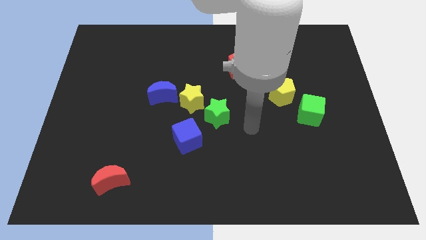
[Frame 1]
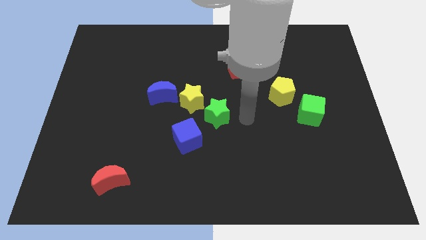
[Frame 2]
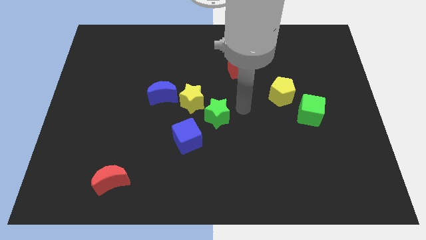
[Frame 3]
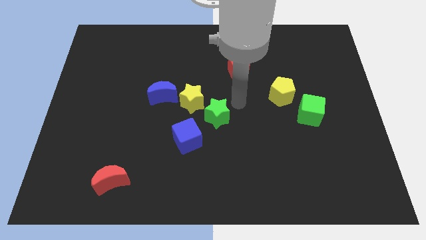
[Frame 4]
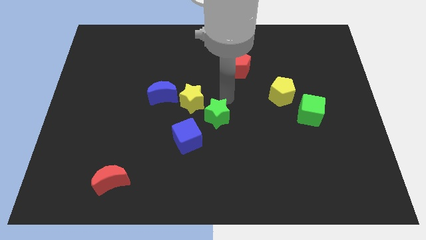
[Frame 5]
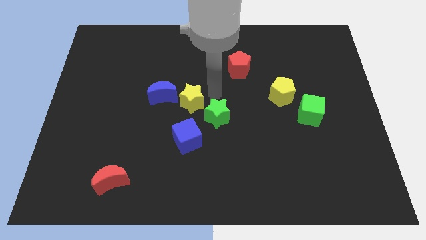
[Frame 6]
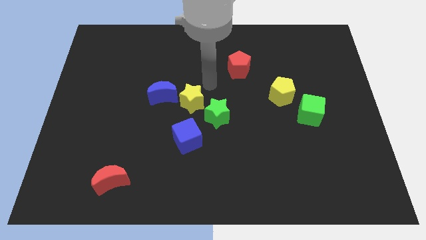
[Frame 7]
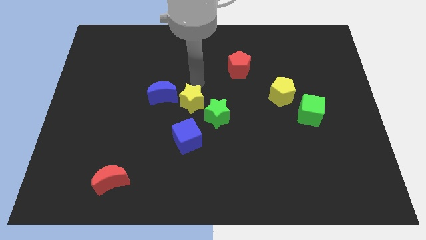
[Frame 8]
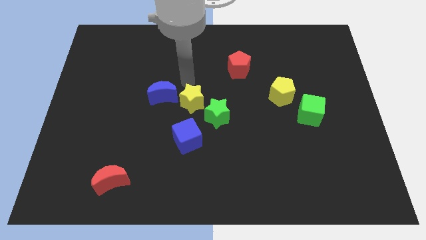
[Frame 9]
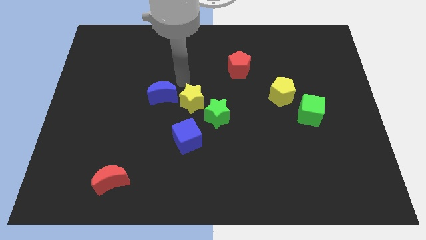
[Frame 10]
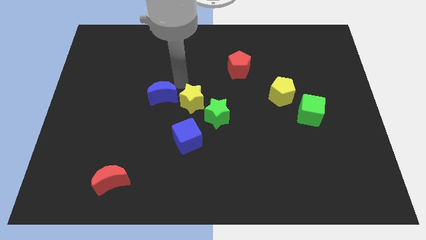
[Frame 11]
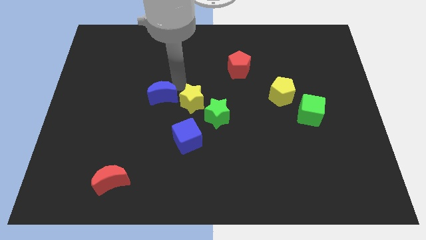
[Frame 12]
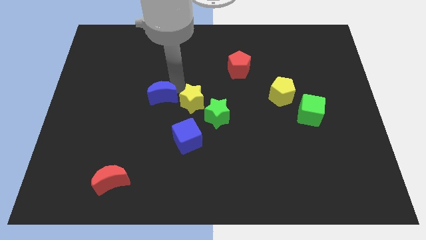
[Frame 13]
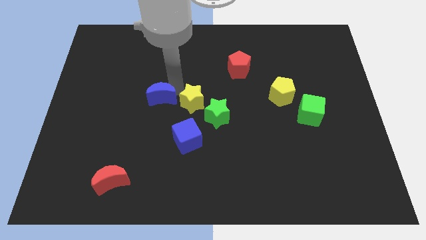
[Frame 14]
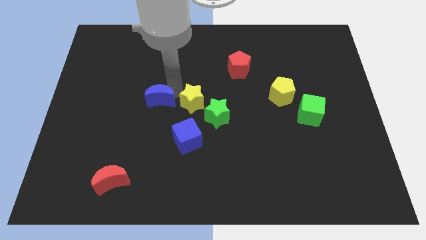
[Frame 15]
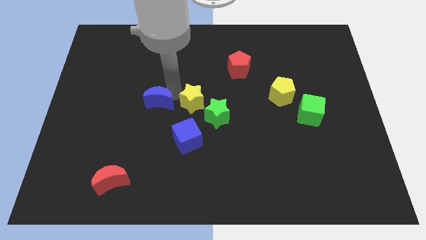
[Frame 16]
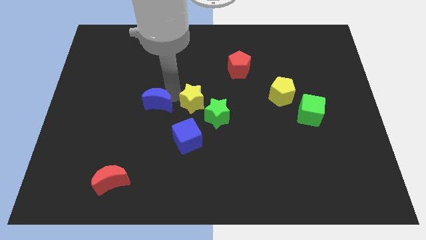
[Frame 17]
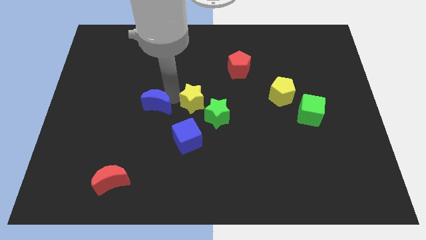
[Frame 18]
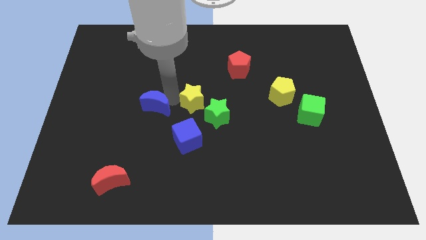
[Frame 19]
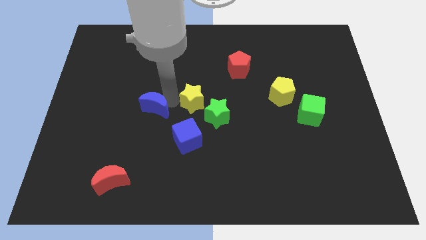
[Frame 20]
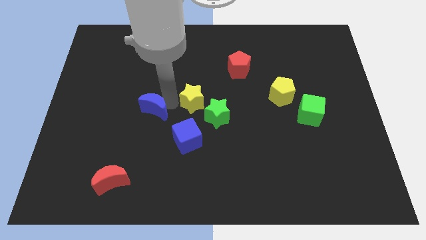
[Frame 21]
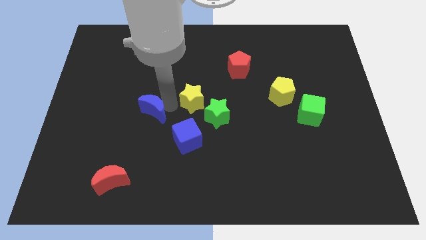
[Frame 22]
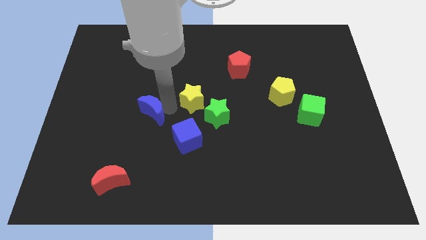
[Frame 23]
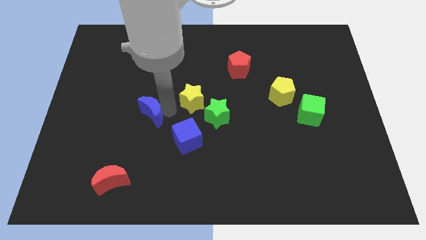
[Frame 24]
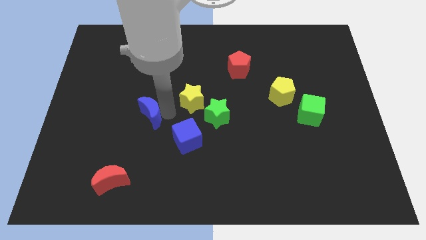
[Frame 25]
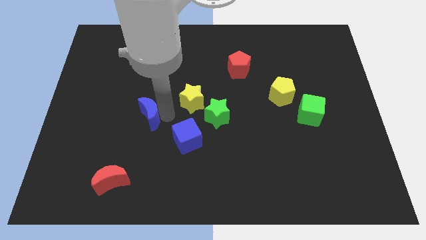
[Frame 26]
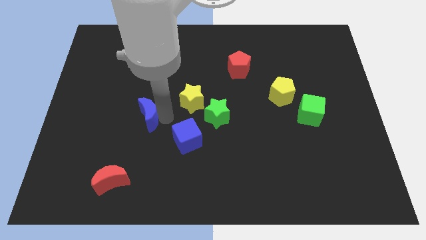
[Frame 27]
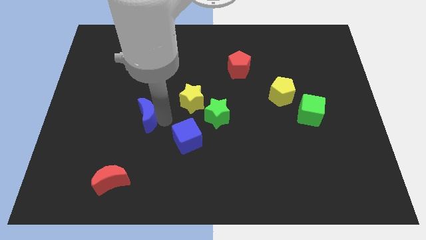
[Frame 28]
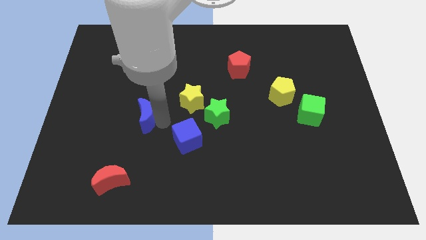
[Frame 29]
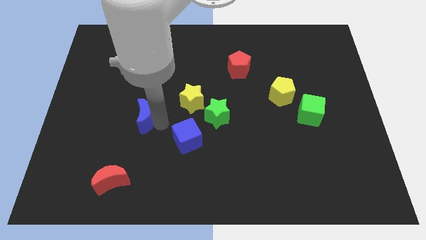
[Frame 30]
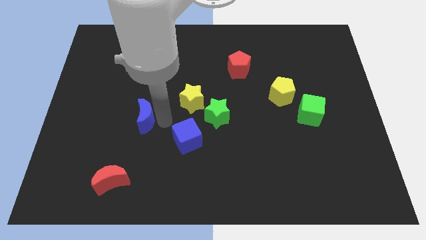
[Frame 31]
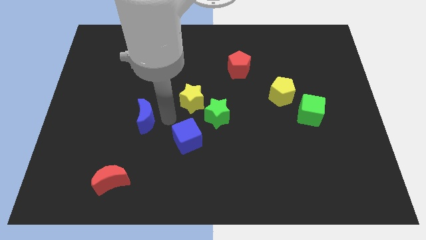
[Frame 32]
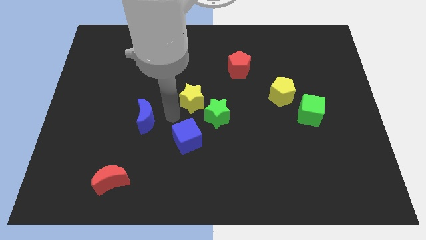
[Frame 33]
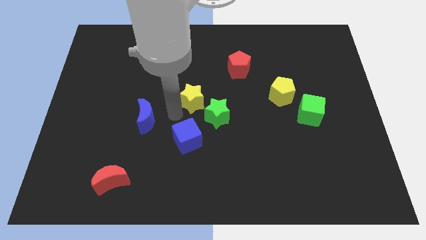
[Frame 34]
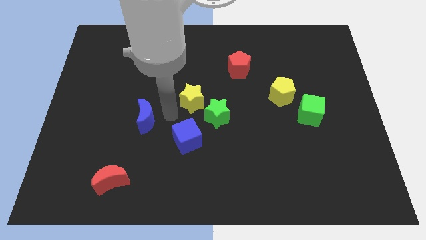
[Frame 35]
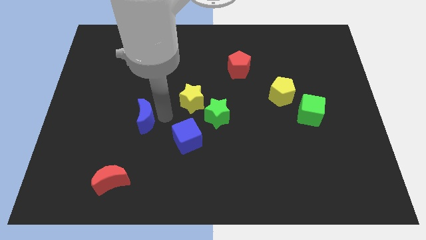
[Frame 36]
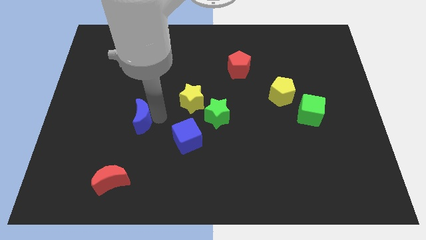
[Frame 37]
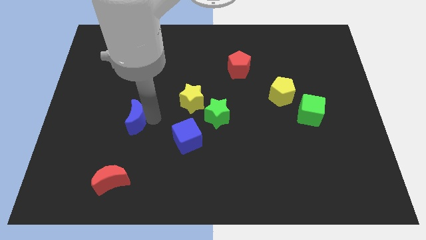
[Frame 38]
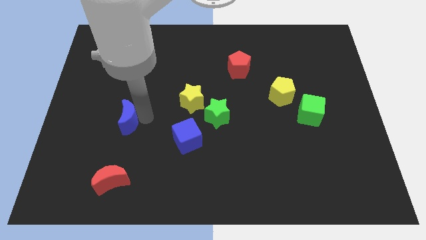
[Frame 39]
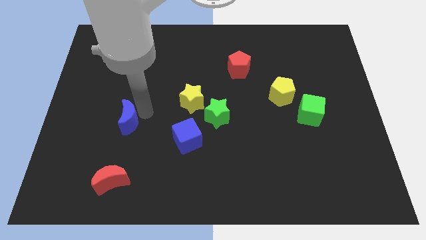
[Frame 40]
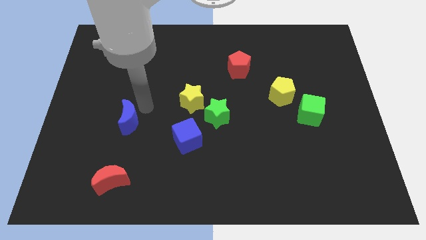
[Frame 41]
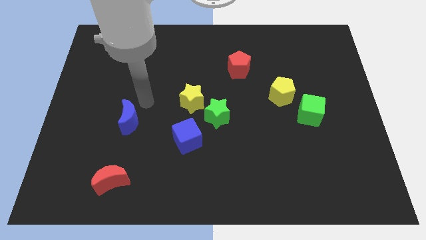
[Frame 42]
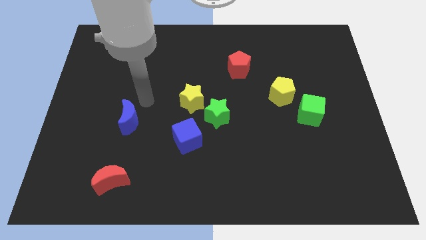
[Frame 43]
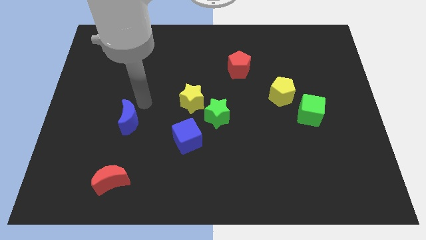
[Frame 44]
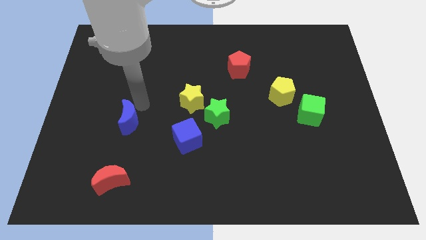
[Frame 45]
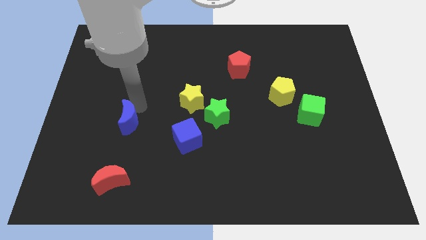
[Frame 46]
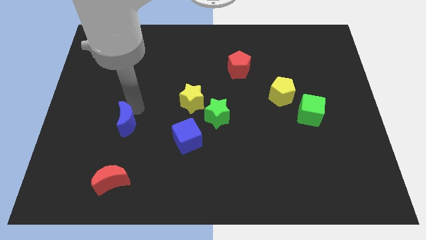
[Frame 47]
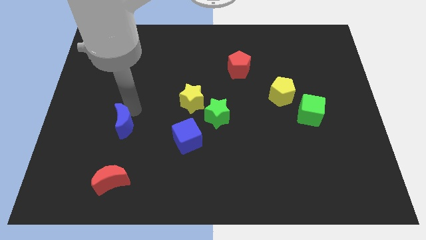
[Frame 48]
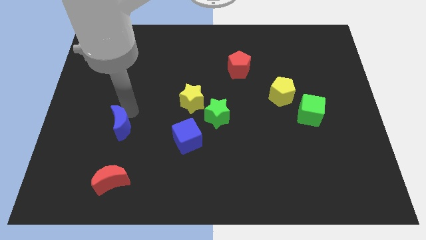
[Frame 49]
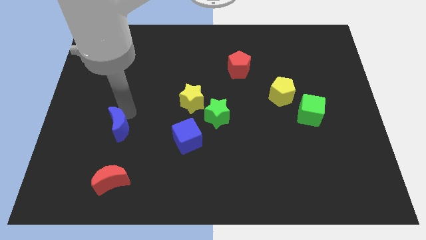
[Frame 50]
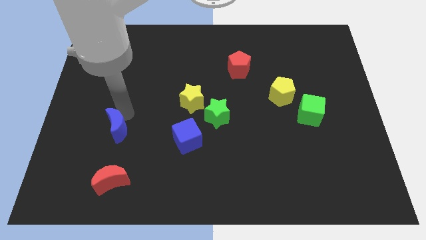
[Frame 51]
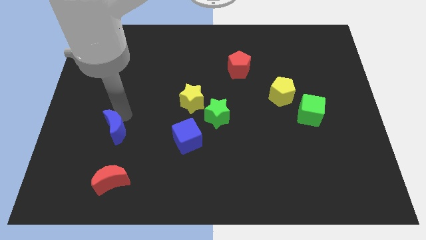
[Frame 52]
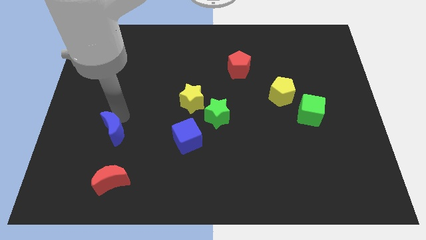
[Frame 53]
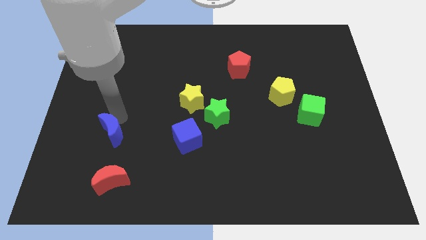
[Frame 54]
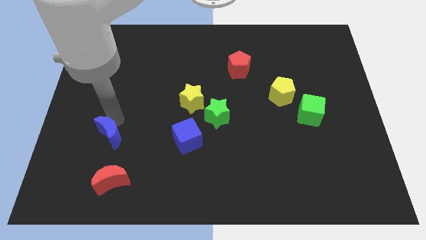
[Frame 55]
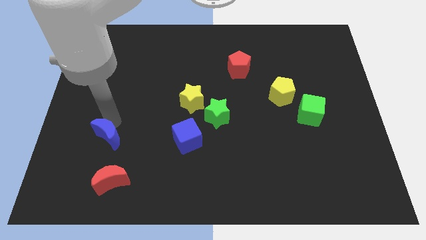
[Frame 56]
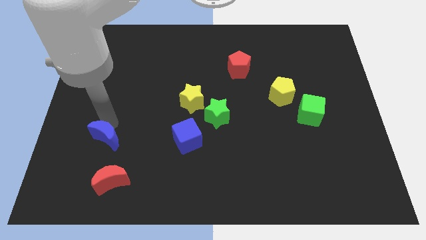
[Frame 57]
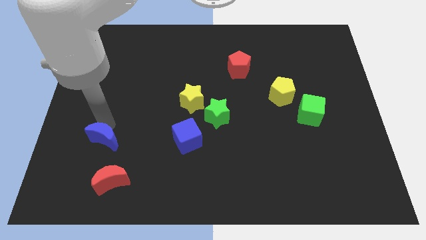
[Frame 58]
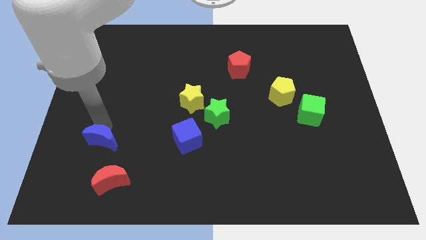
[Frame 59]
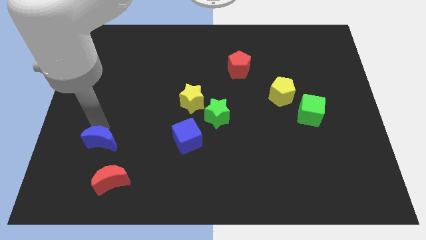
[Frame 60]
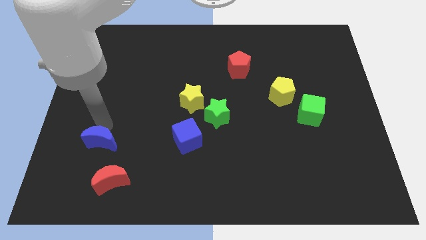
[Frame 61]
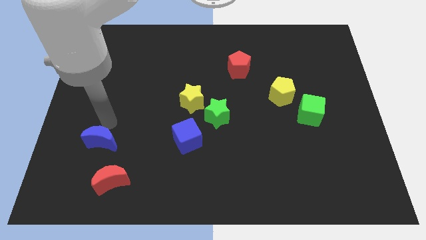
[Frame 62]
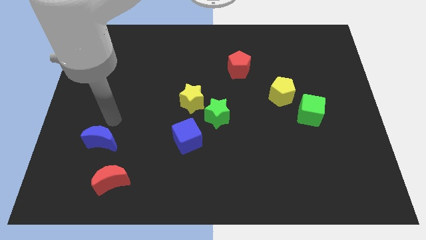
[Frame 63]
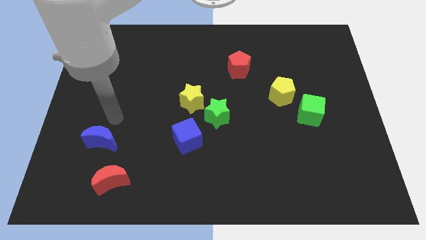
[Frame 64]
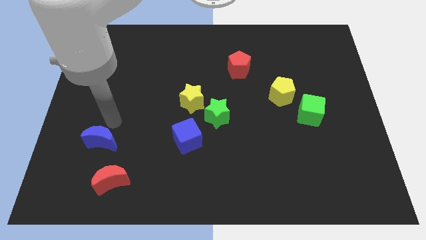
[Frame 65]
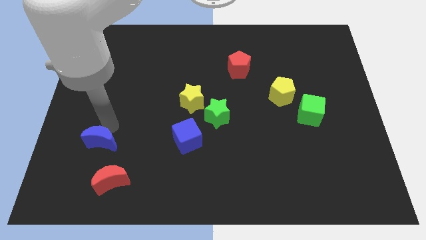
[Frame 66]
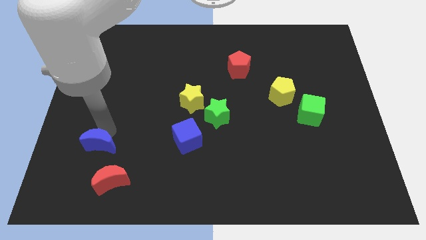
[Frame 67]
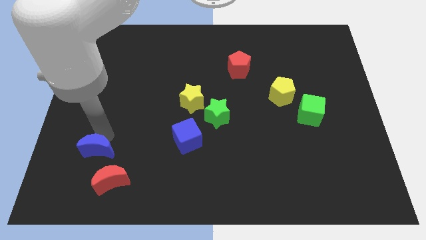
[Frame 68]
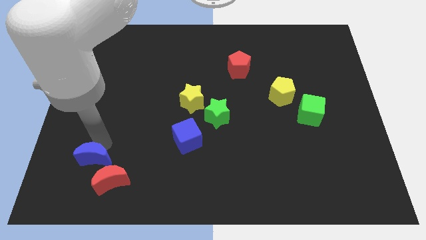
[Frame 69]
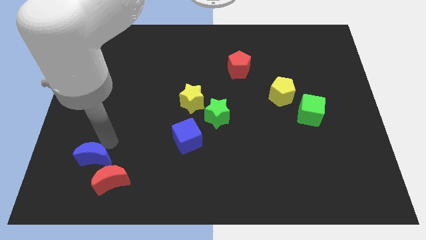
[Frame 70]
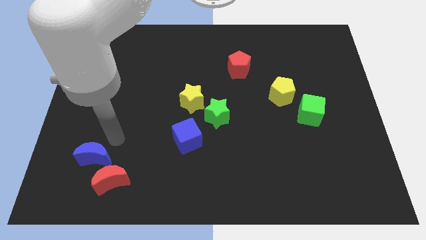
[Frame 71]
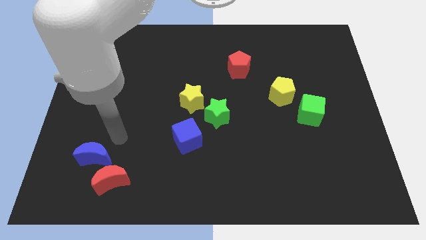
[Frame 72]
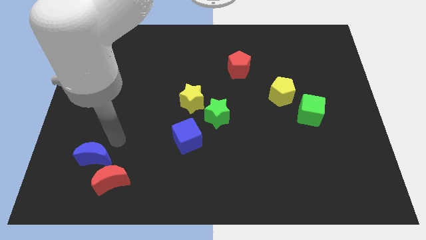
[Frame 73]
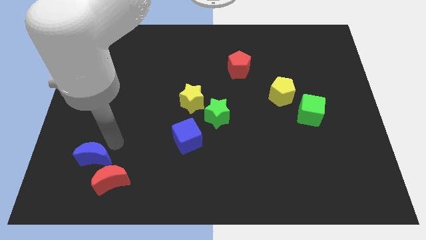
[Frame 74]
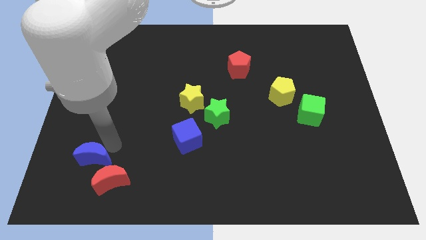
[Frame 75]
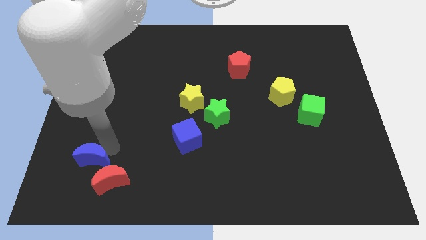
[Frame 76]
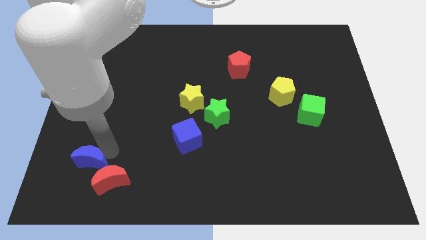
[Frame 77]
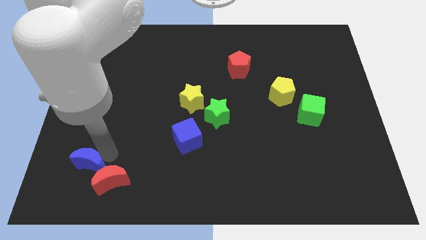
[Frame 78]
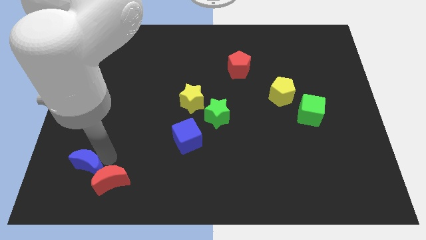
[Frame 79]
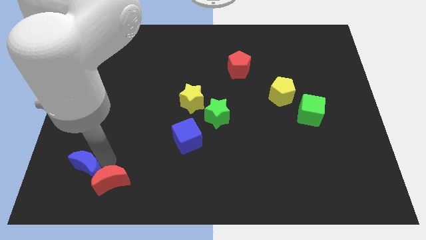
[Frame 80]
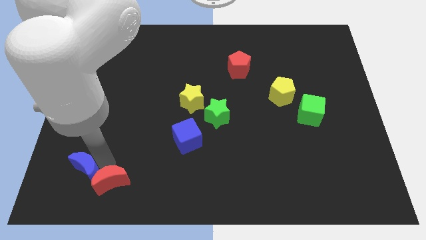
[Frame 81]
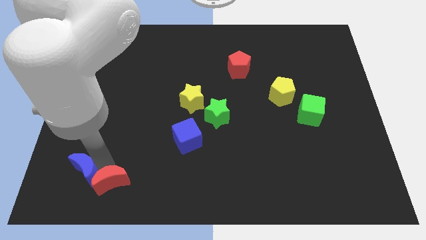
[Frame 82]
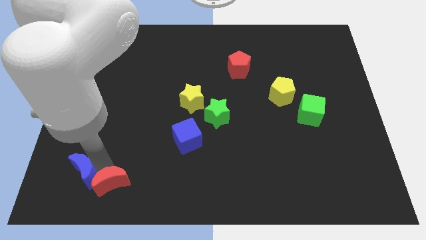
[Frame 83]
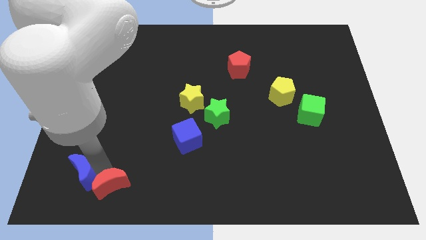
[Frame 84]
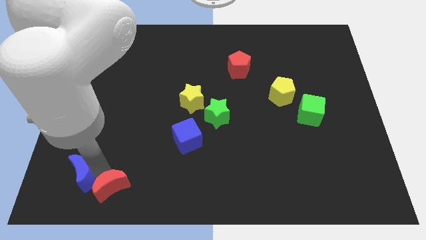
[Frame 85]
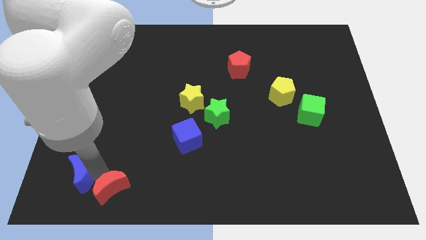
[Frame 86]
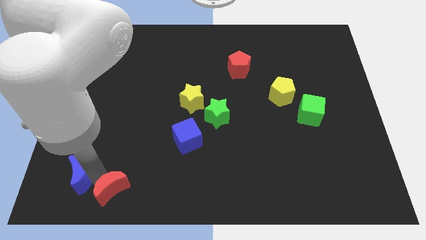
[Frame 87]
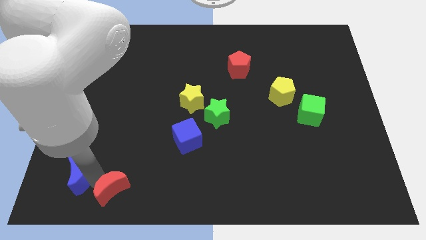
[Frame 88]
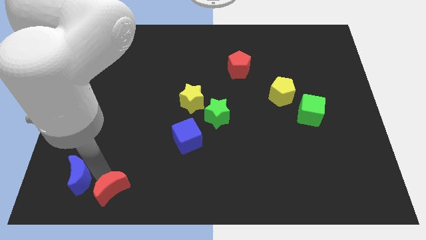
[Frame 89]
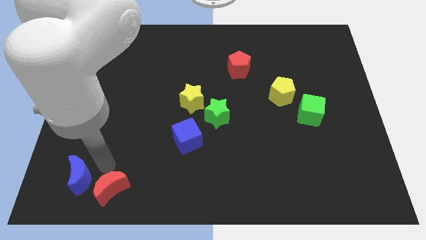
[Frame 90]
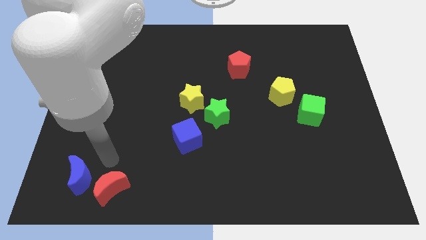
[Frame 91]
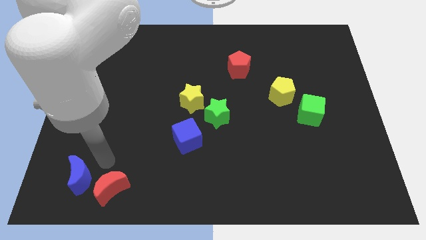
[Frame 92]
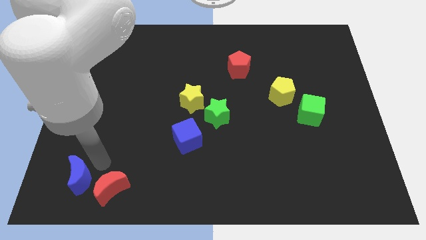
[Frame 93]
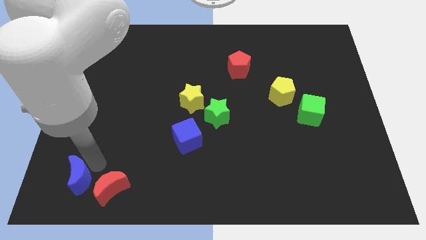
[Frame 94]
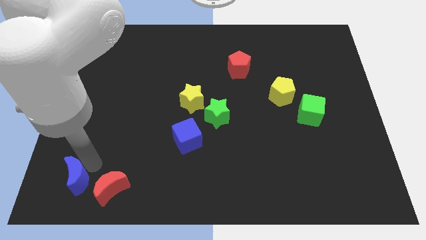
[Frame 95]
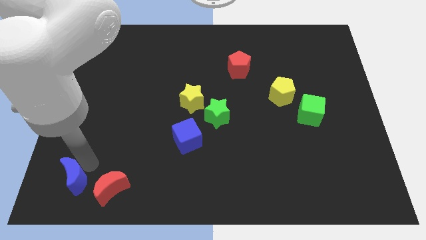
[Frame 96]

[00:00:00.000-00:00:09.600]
slide the blue moon to the bottom left
